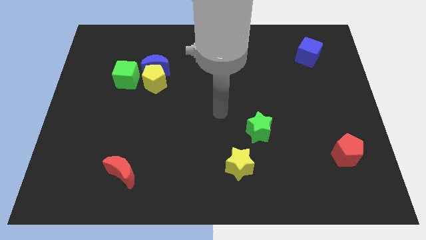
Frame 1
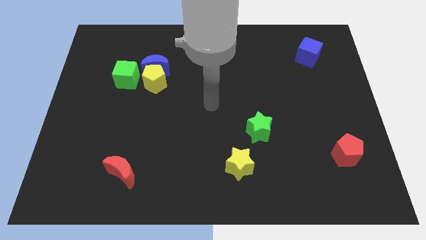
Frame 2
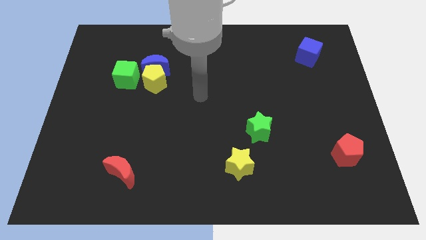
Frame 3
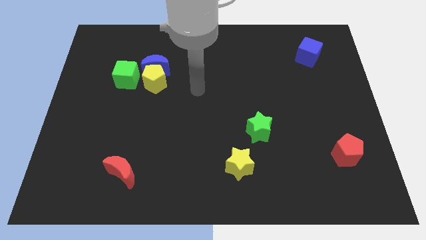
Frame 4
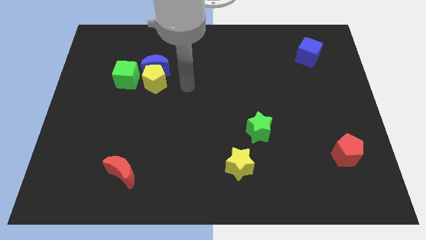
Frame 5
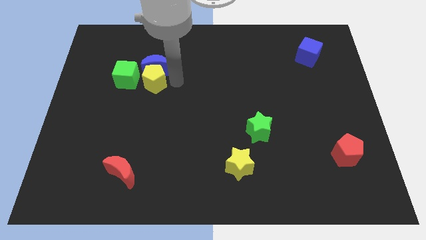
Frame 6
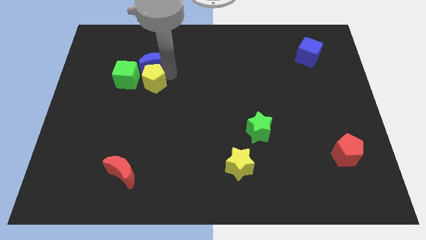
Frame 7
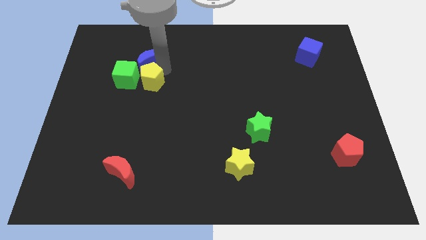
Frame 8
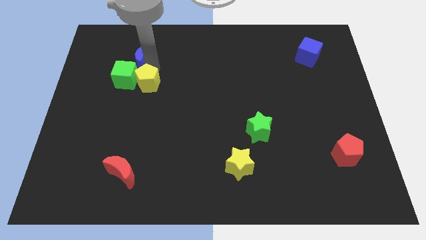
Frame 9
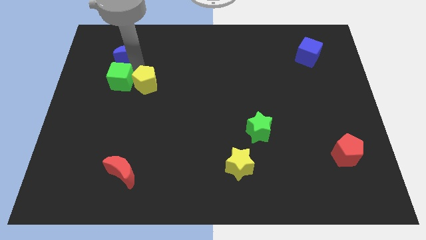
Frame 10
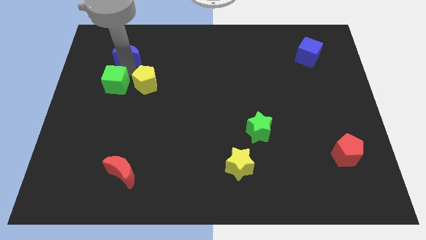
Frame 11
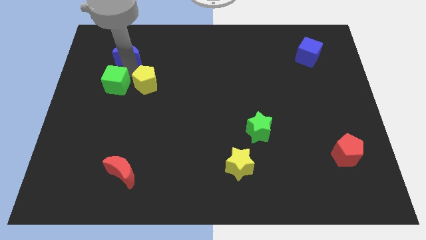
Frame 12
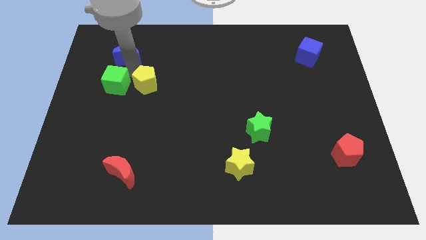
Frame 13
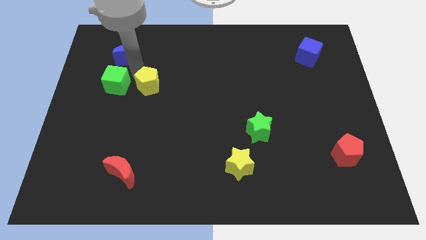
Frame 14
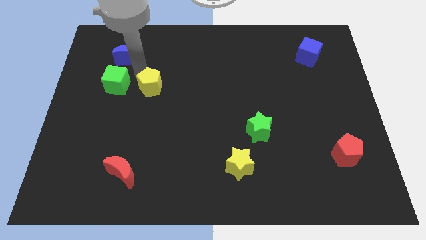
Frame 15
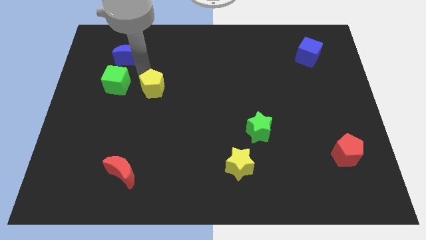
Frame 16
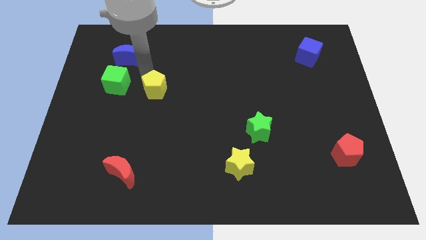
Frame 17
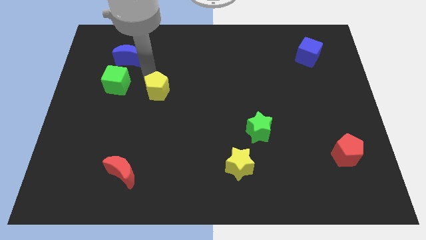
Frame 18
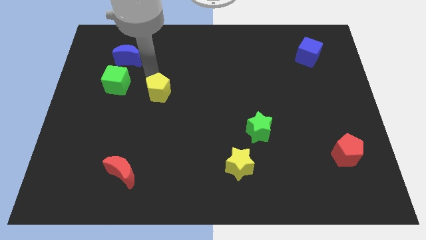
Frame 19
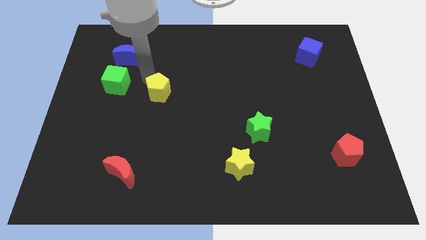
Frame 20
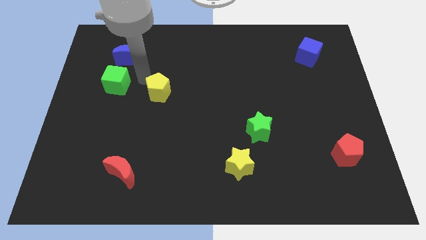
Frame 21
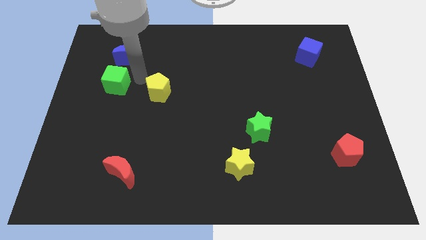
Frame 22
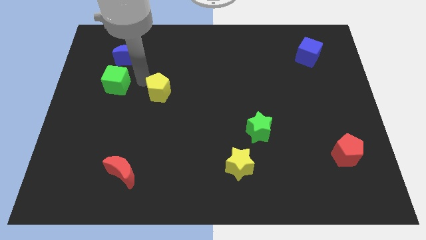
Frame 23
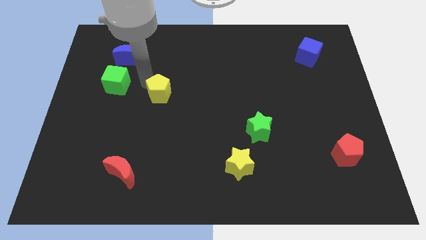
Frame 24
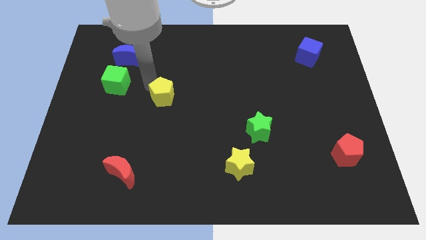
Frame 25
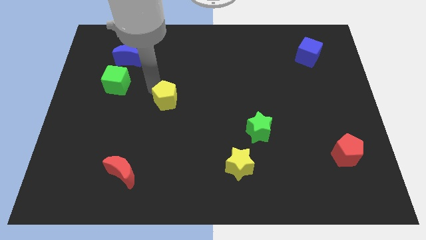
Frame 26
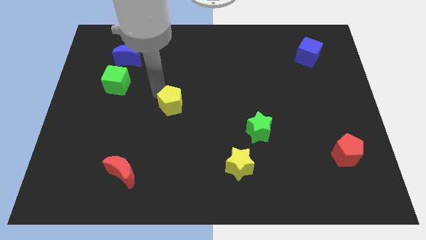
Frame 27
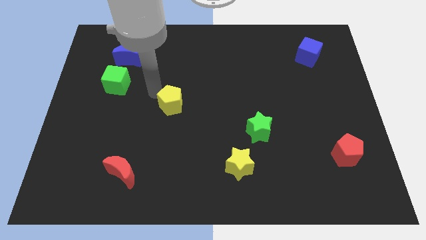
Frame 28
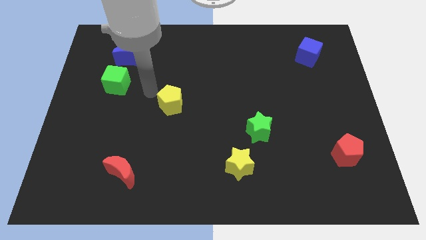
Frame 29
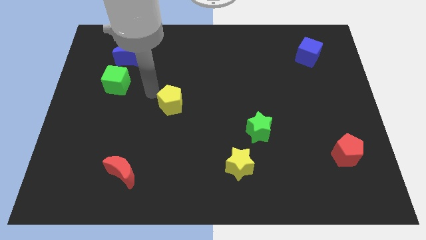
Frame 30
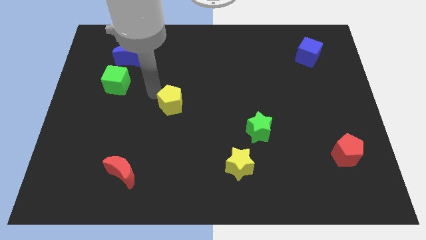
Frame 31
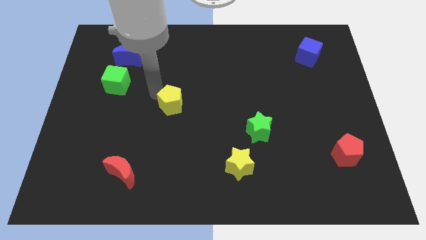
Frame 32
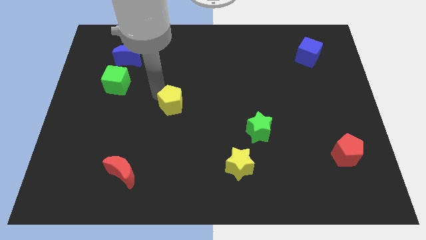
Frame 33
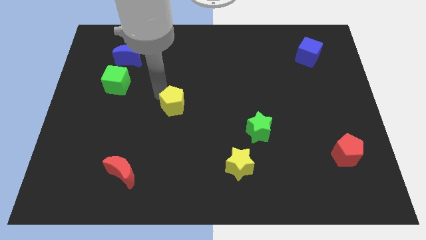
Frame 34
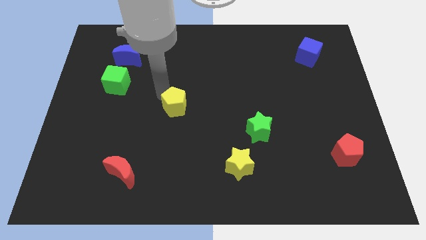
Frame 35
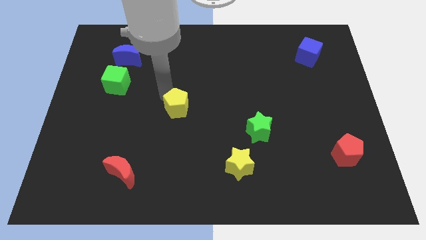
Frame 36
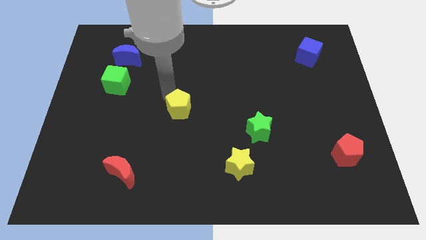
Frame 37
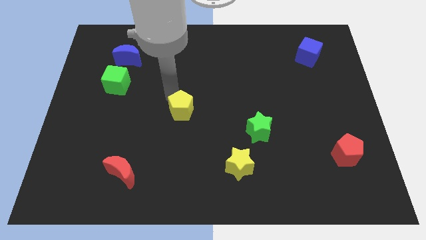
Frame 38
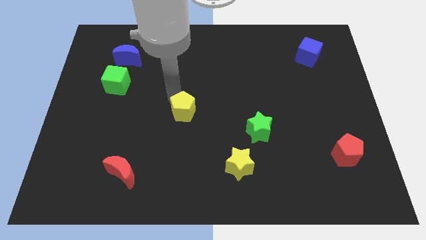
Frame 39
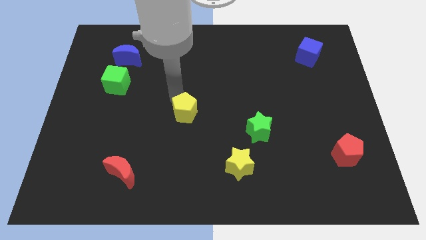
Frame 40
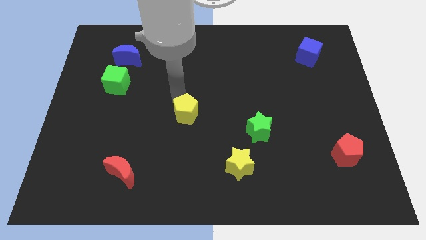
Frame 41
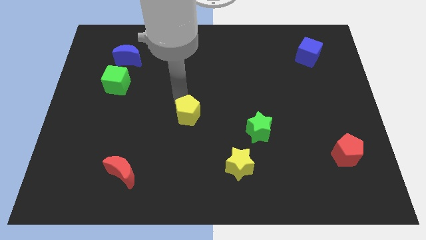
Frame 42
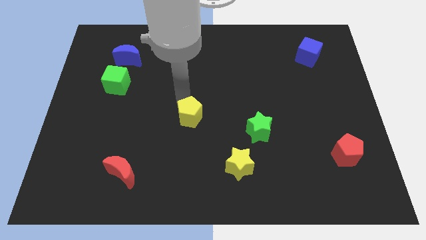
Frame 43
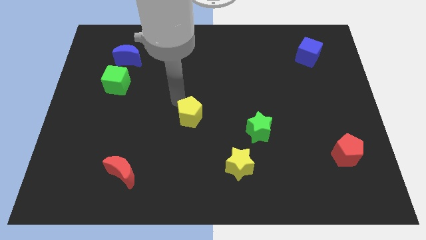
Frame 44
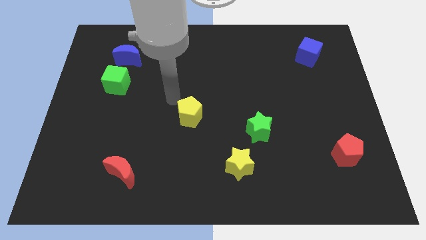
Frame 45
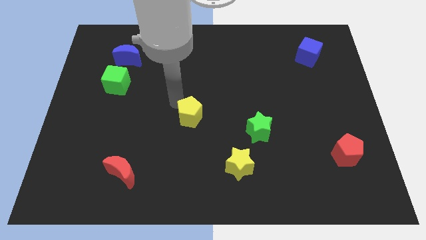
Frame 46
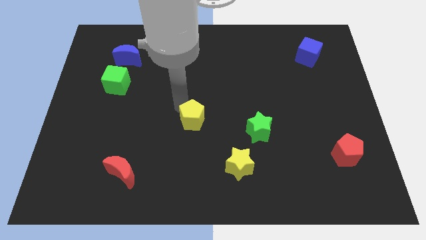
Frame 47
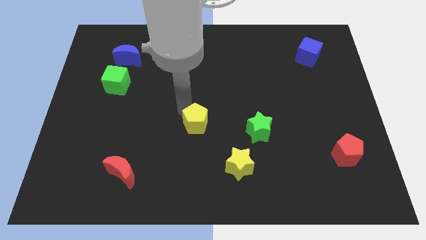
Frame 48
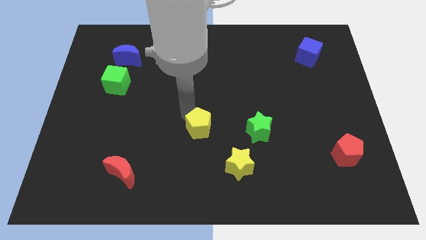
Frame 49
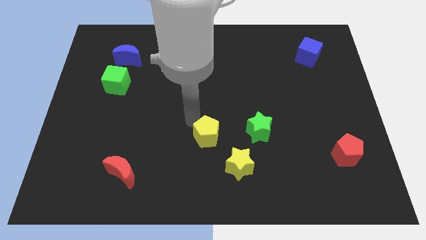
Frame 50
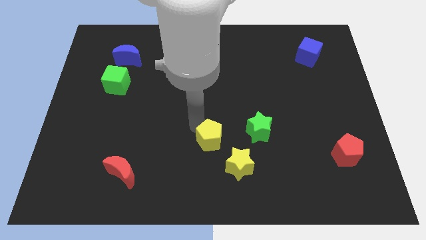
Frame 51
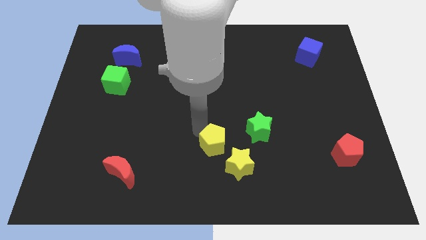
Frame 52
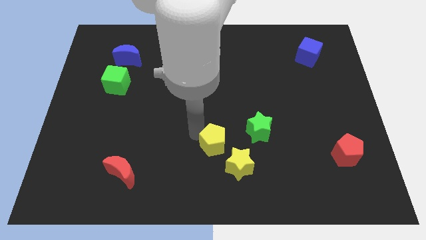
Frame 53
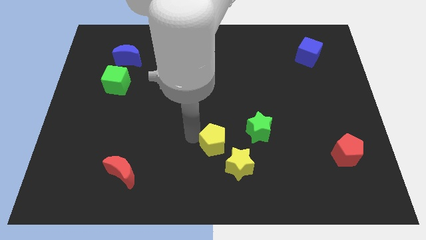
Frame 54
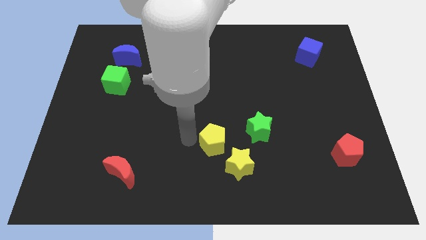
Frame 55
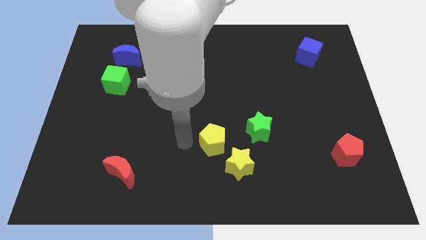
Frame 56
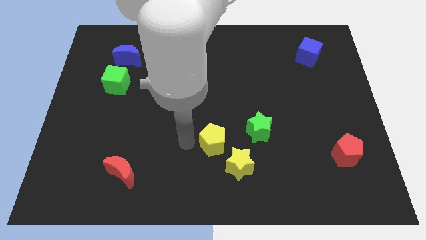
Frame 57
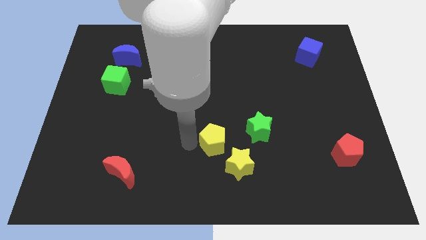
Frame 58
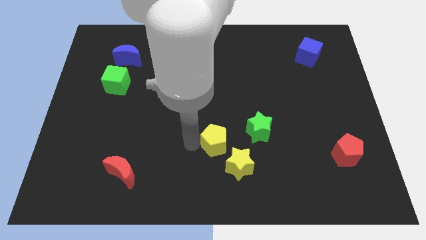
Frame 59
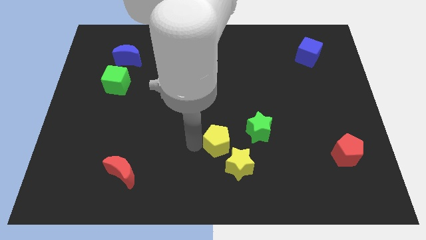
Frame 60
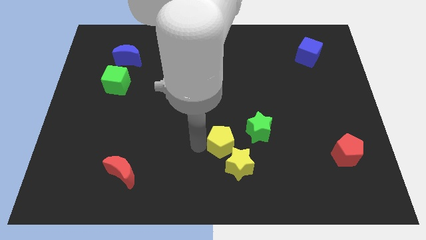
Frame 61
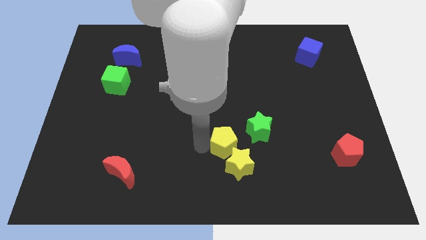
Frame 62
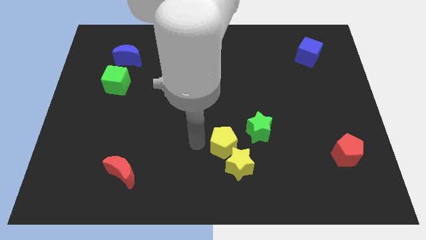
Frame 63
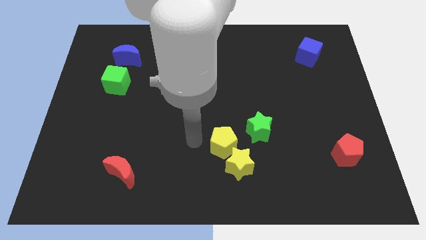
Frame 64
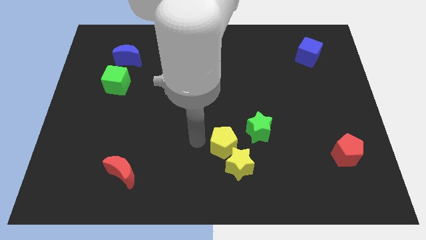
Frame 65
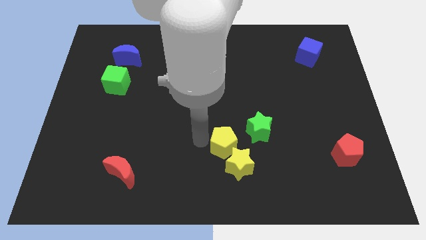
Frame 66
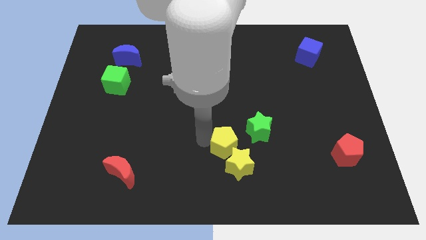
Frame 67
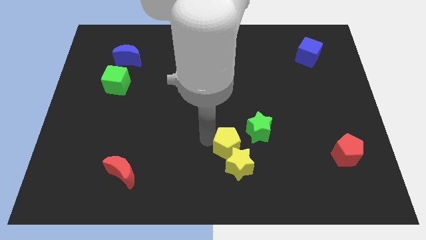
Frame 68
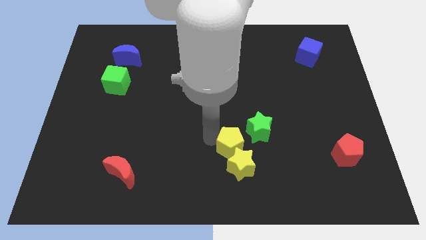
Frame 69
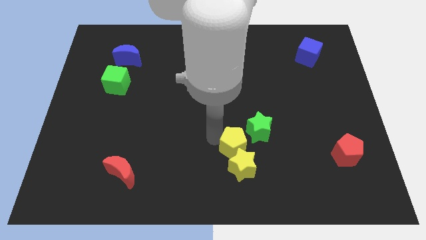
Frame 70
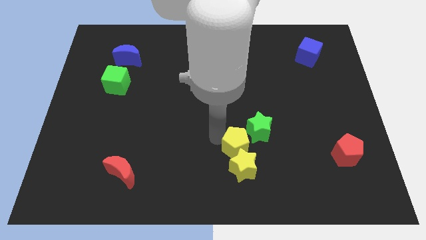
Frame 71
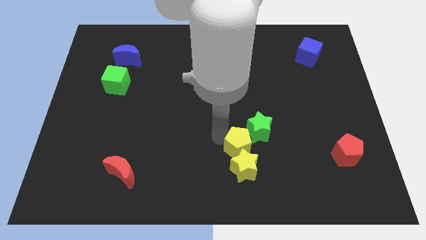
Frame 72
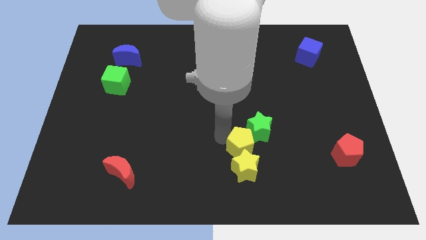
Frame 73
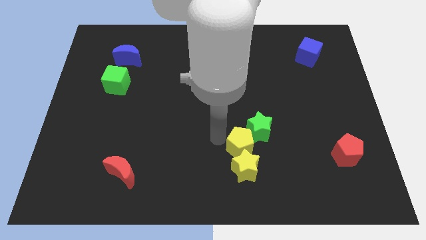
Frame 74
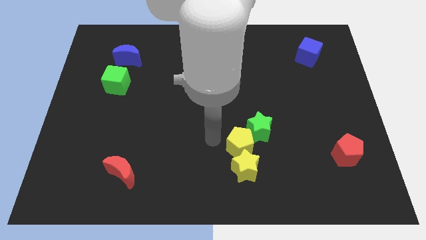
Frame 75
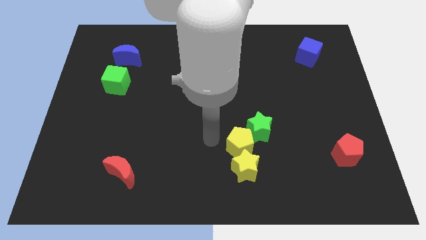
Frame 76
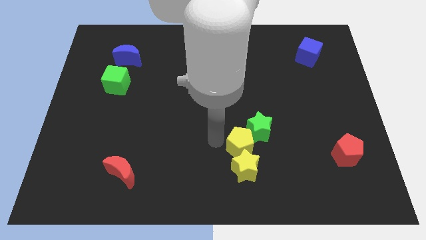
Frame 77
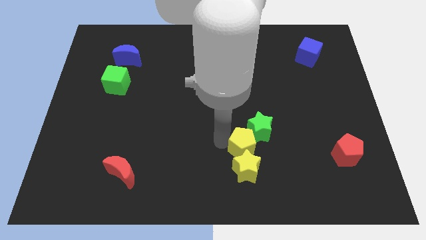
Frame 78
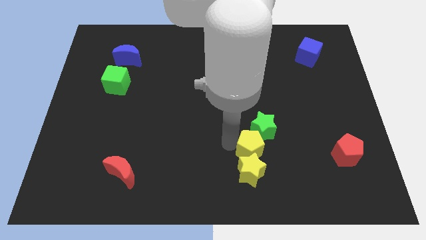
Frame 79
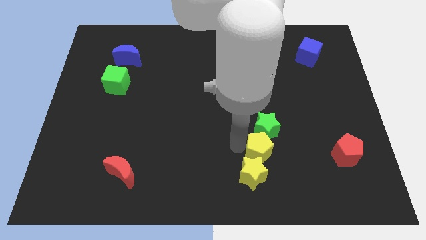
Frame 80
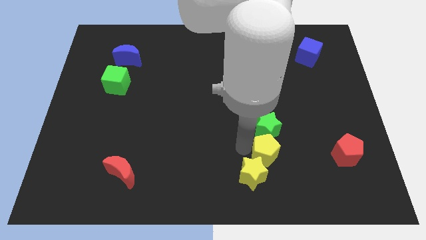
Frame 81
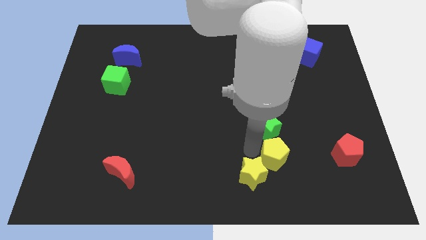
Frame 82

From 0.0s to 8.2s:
move the yellow pentagon left of the red pentagon
